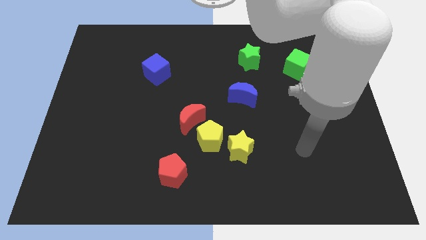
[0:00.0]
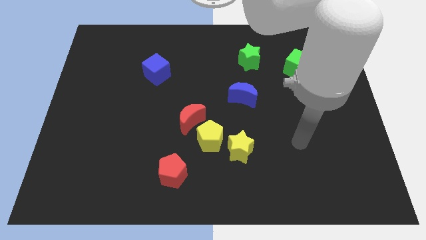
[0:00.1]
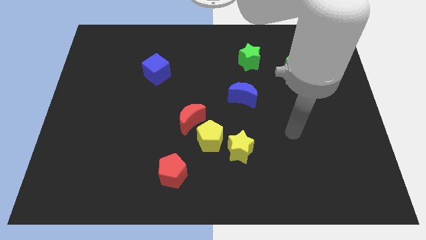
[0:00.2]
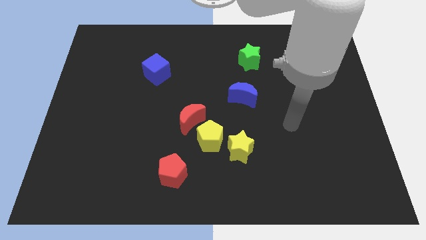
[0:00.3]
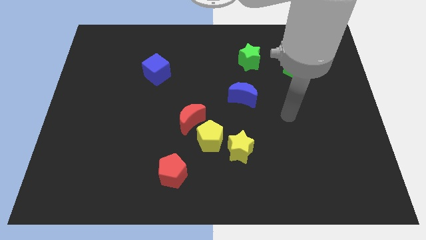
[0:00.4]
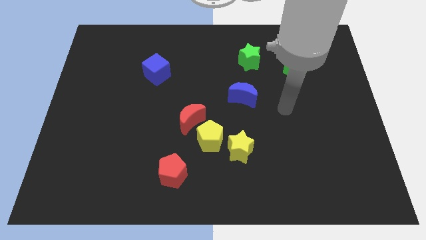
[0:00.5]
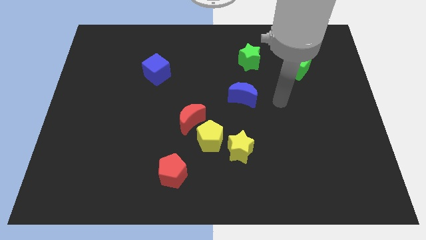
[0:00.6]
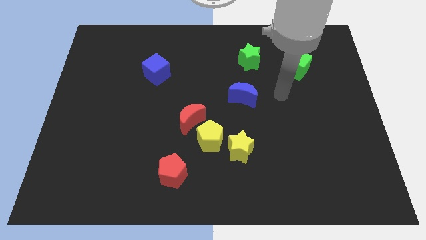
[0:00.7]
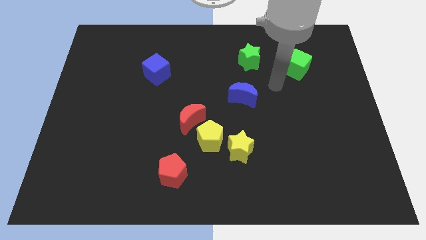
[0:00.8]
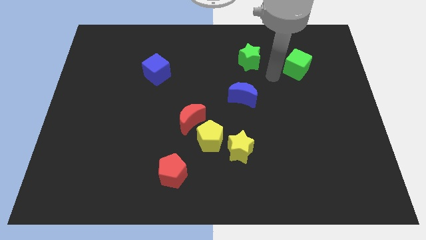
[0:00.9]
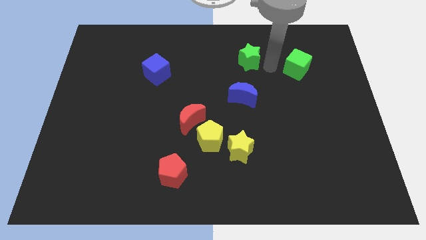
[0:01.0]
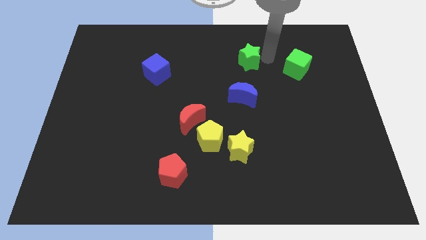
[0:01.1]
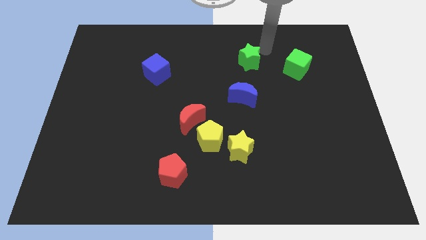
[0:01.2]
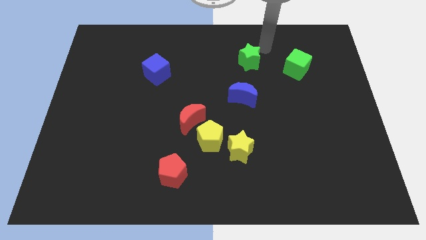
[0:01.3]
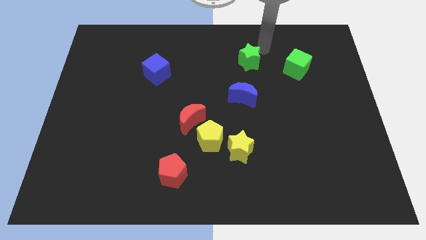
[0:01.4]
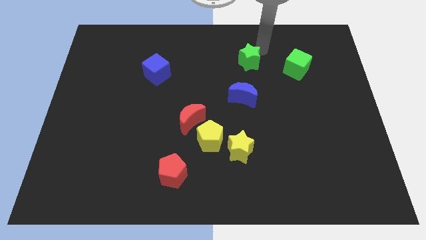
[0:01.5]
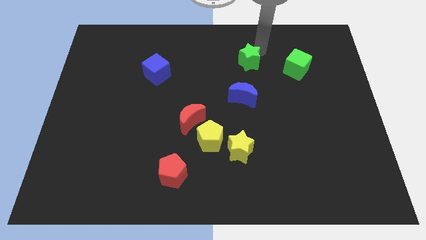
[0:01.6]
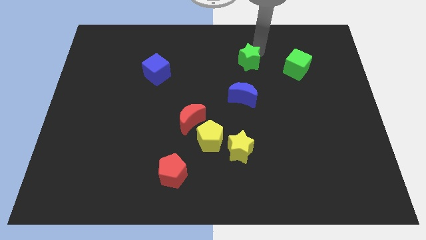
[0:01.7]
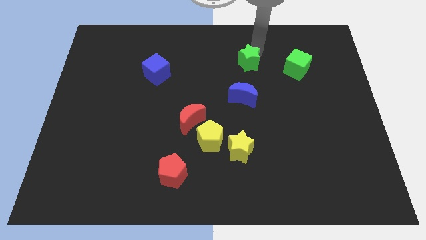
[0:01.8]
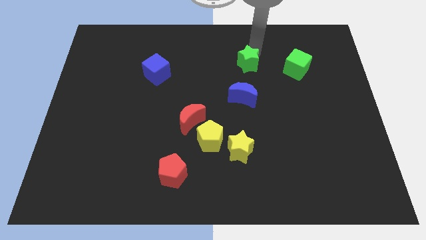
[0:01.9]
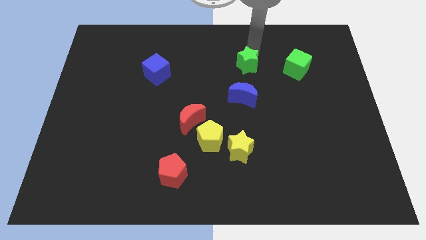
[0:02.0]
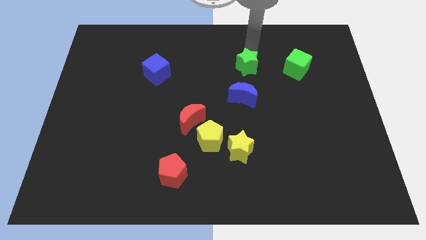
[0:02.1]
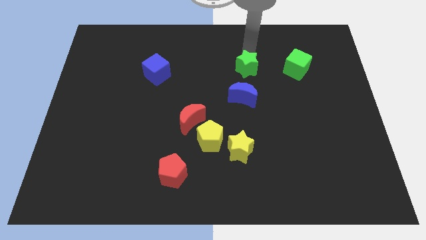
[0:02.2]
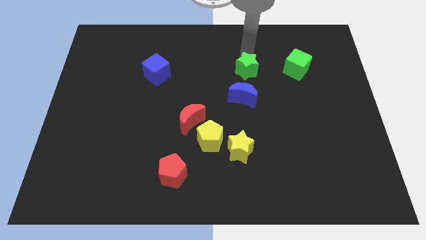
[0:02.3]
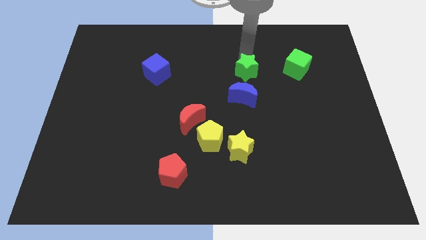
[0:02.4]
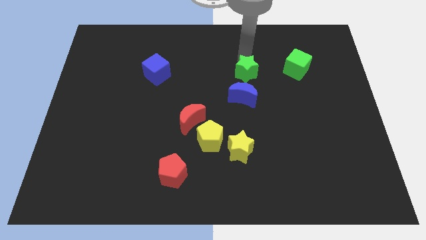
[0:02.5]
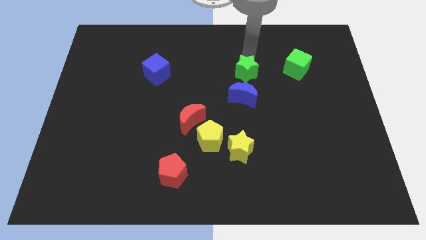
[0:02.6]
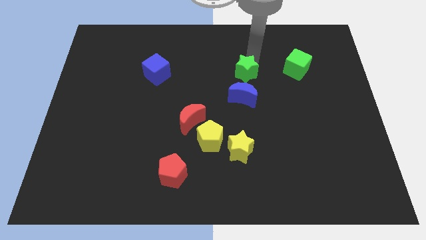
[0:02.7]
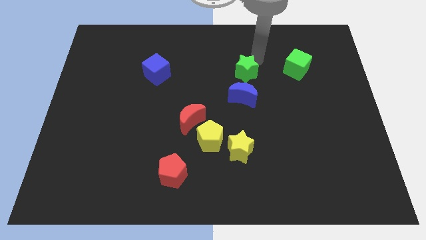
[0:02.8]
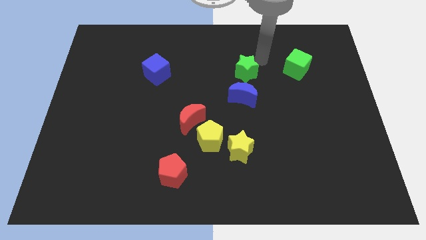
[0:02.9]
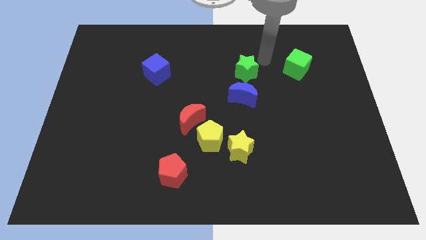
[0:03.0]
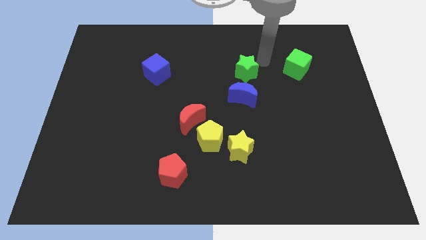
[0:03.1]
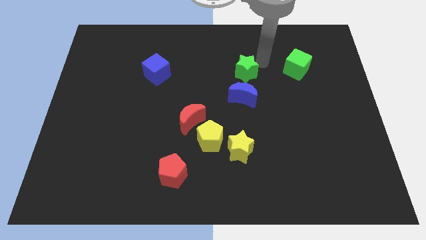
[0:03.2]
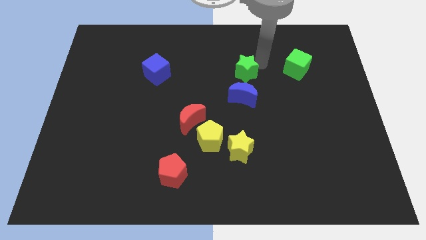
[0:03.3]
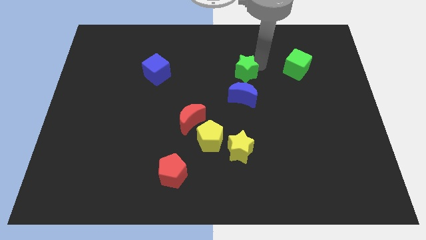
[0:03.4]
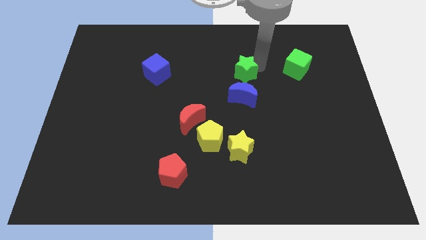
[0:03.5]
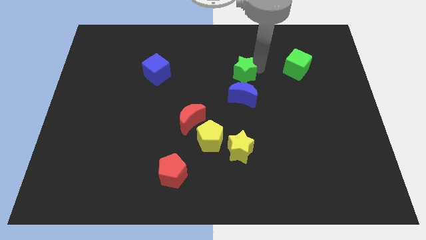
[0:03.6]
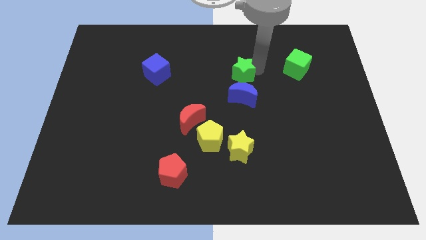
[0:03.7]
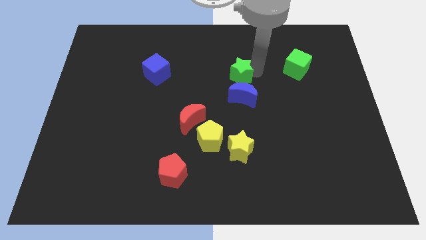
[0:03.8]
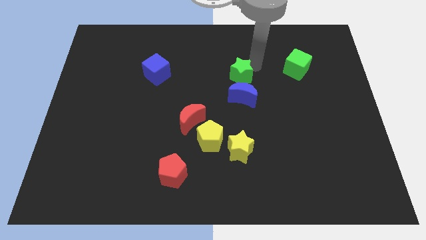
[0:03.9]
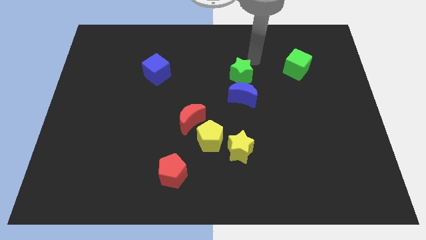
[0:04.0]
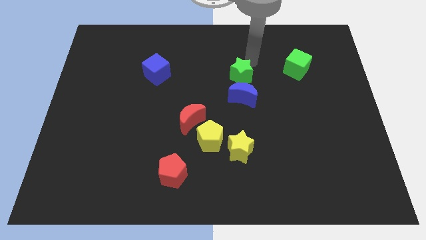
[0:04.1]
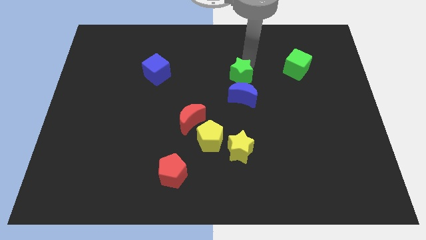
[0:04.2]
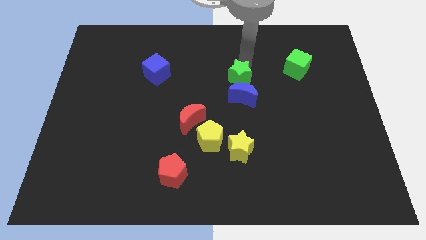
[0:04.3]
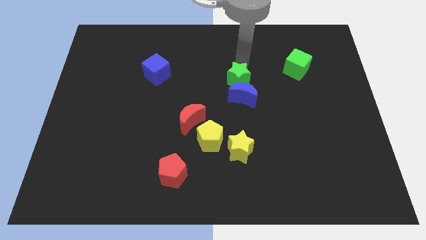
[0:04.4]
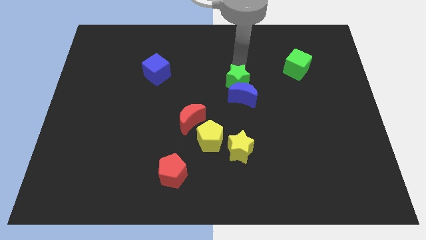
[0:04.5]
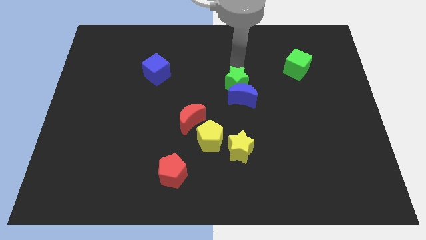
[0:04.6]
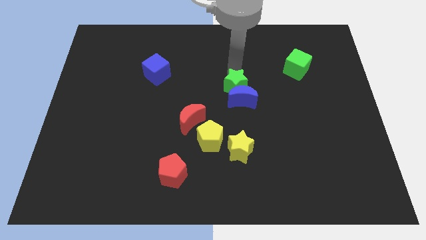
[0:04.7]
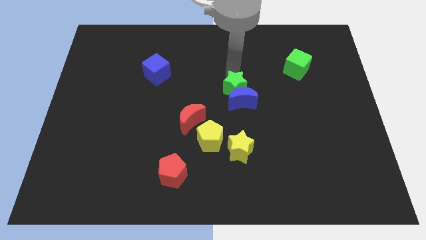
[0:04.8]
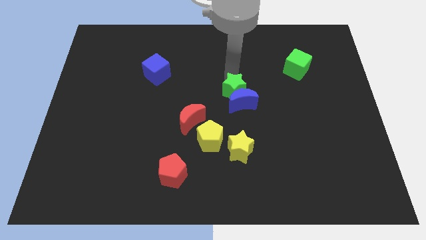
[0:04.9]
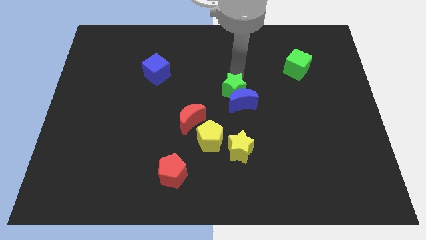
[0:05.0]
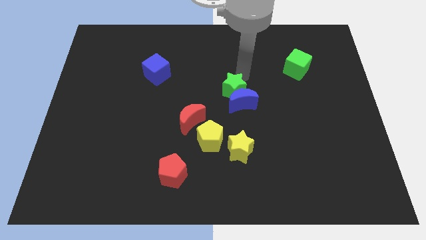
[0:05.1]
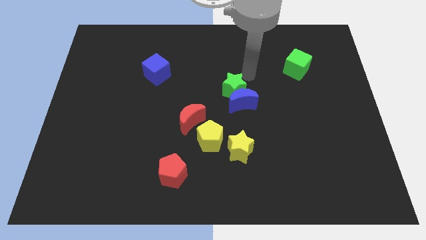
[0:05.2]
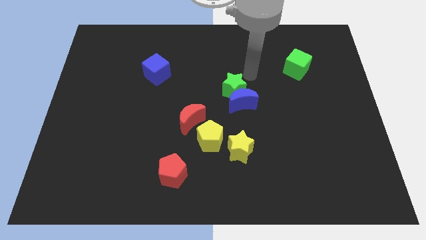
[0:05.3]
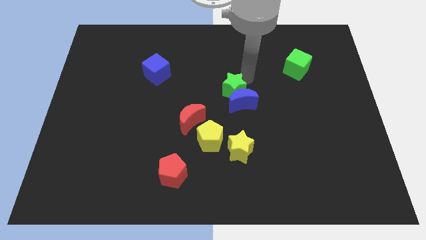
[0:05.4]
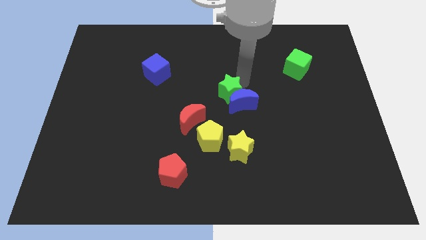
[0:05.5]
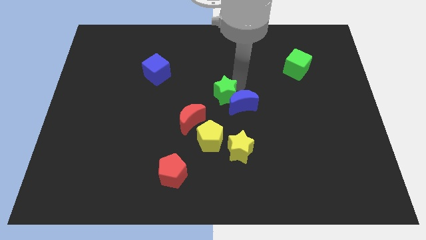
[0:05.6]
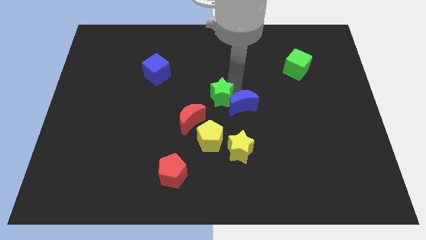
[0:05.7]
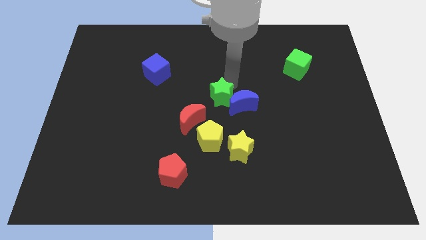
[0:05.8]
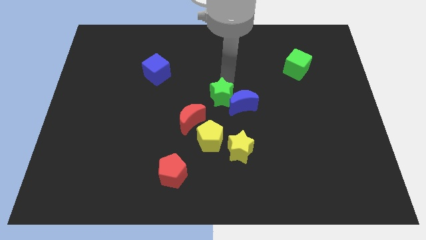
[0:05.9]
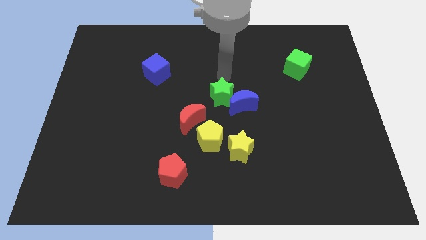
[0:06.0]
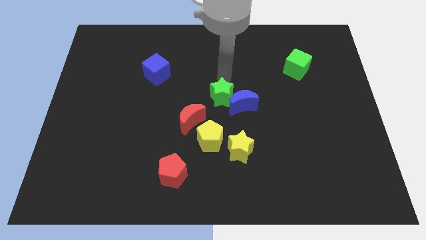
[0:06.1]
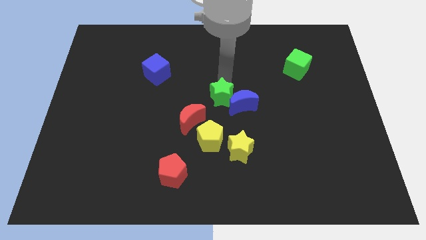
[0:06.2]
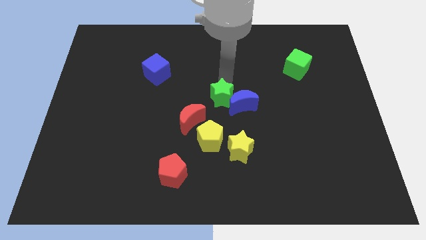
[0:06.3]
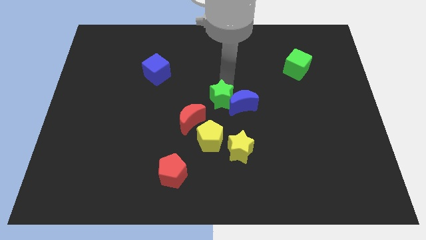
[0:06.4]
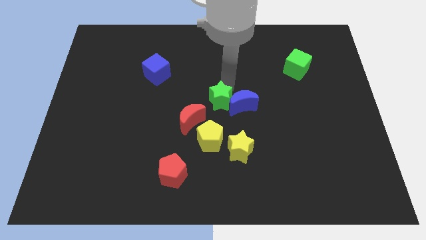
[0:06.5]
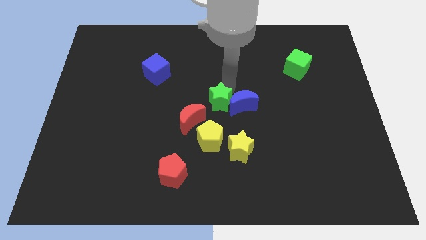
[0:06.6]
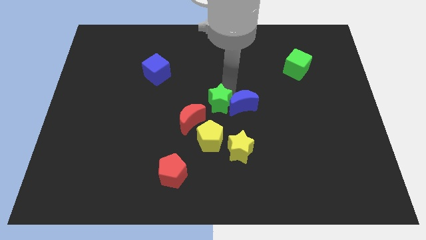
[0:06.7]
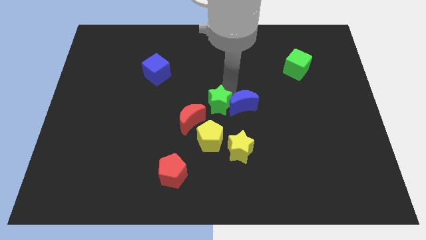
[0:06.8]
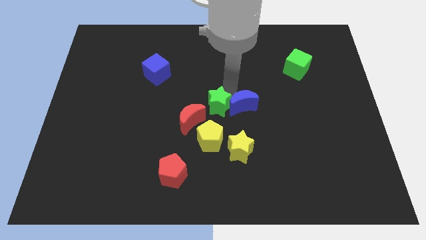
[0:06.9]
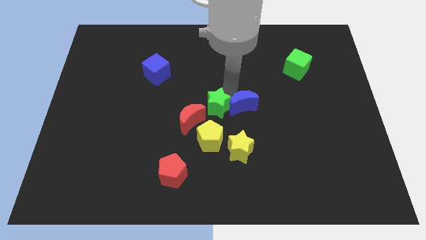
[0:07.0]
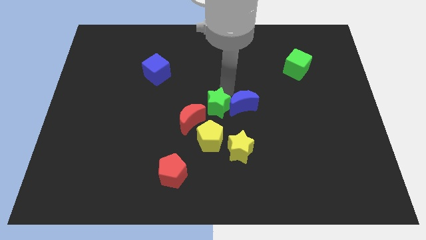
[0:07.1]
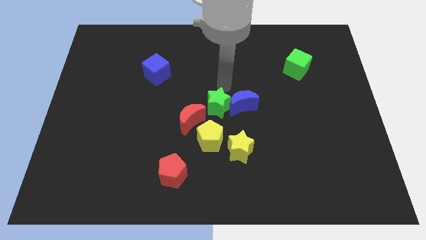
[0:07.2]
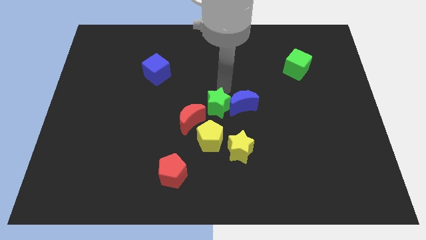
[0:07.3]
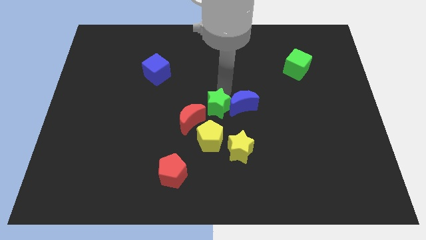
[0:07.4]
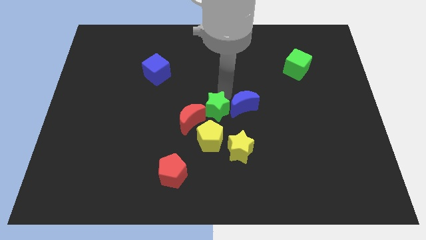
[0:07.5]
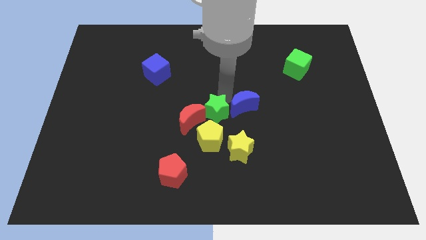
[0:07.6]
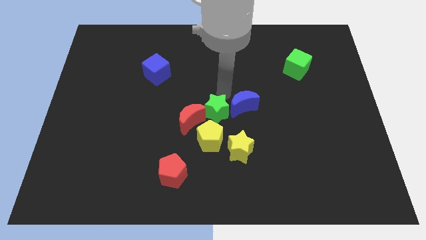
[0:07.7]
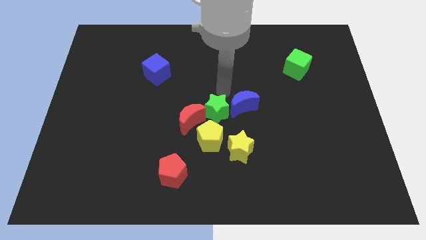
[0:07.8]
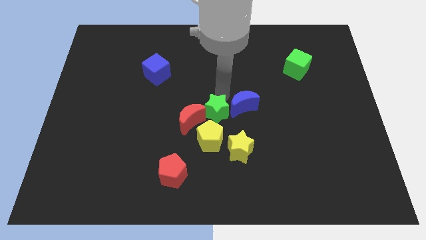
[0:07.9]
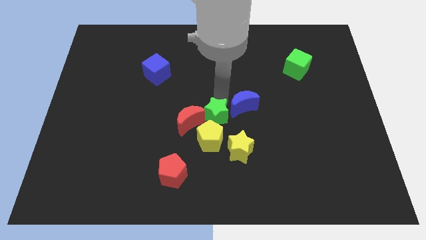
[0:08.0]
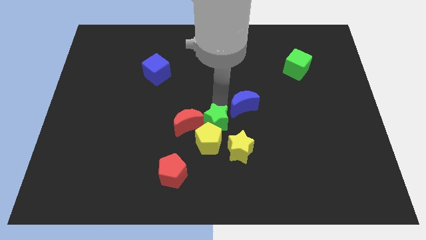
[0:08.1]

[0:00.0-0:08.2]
put the green star to the yellow pentagon
